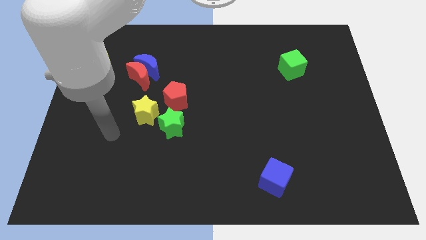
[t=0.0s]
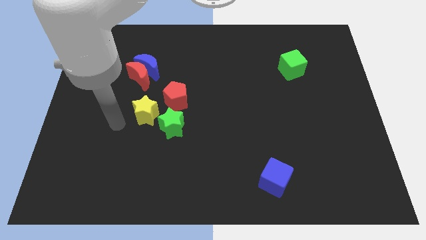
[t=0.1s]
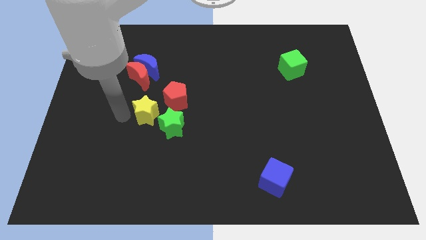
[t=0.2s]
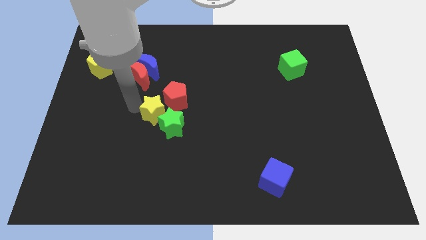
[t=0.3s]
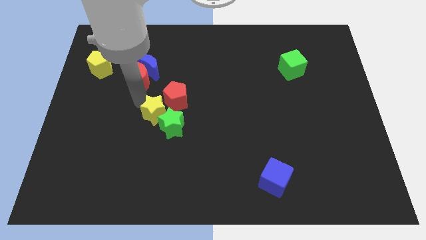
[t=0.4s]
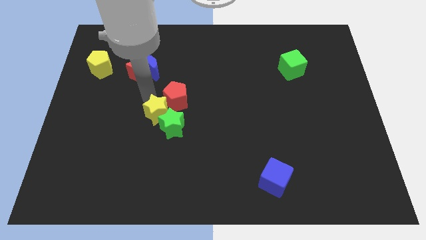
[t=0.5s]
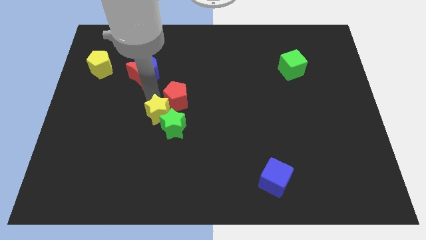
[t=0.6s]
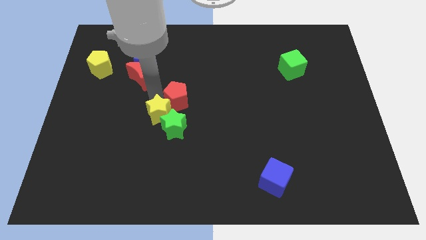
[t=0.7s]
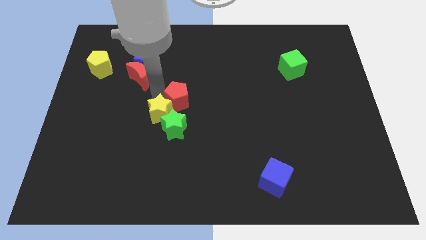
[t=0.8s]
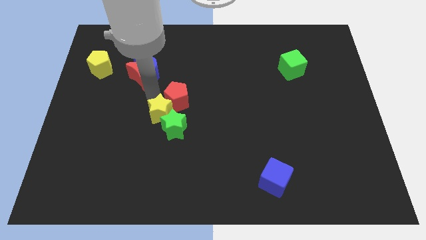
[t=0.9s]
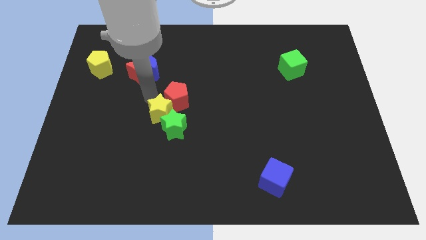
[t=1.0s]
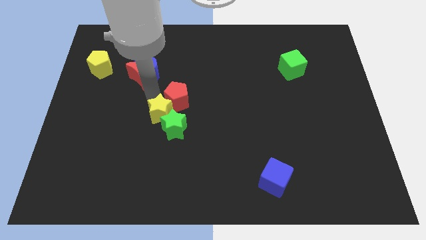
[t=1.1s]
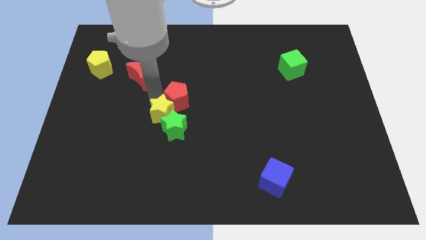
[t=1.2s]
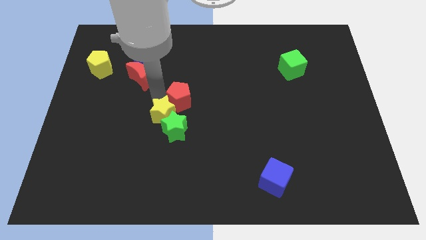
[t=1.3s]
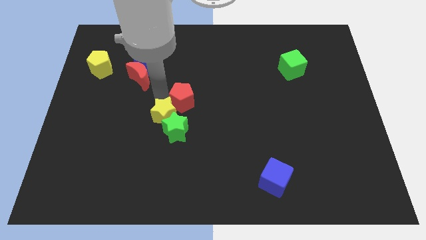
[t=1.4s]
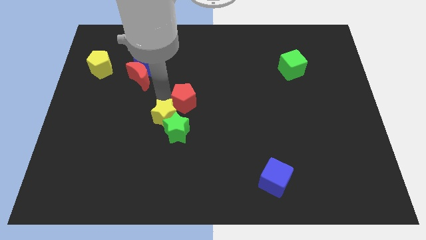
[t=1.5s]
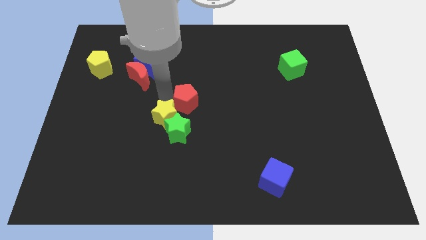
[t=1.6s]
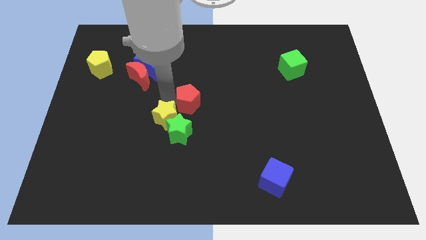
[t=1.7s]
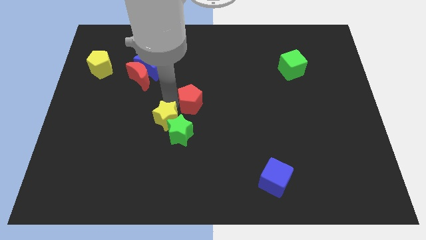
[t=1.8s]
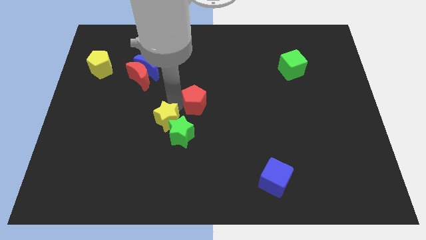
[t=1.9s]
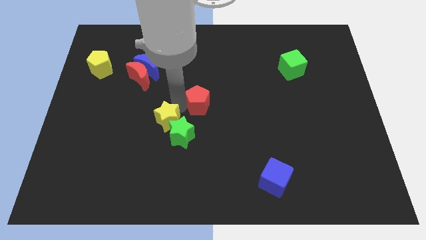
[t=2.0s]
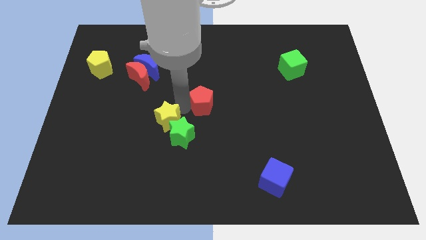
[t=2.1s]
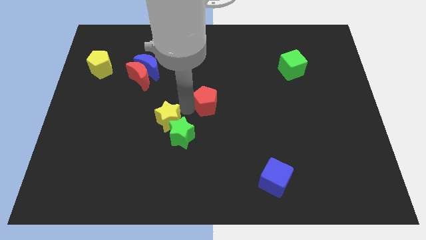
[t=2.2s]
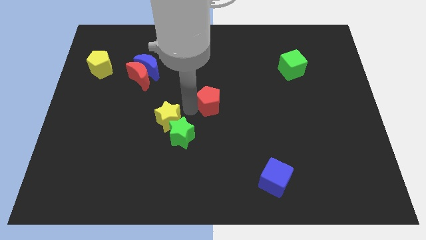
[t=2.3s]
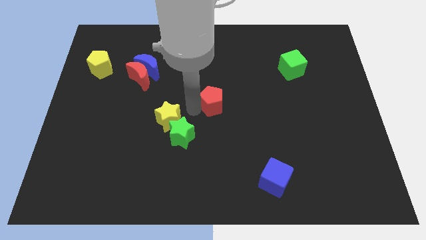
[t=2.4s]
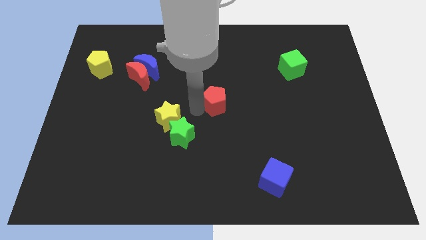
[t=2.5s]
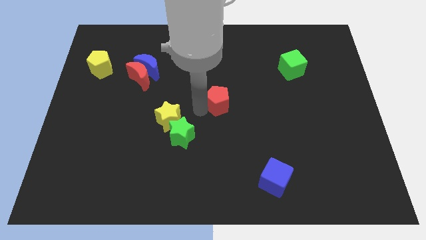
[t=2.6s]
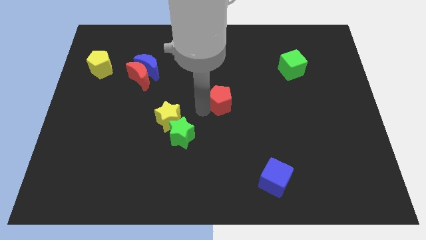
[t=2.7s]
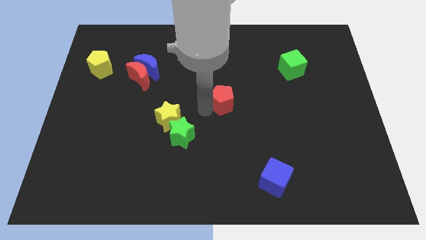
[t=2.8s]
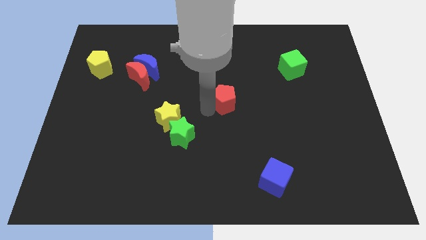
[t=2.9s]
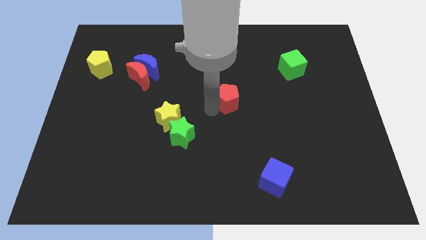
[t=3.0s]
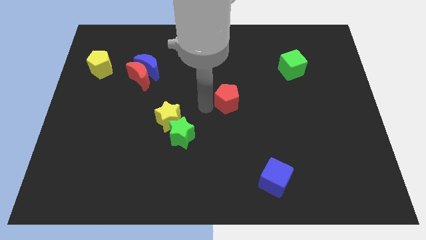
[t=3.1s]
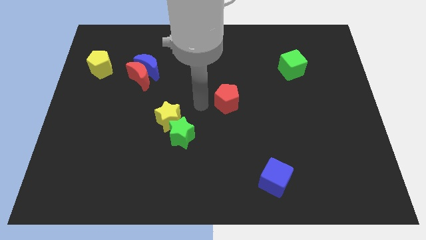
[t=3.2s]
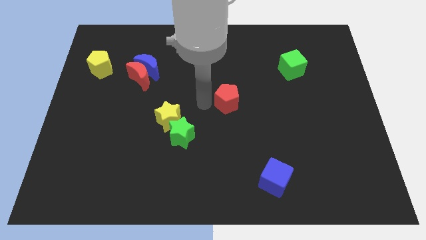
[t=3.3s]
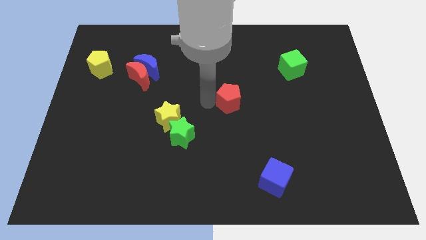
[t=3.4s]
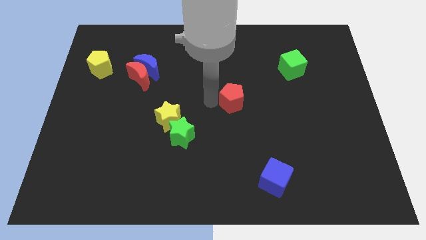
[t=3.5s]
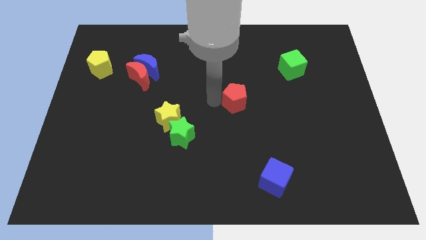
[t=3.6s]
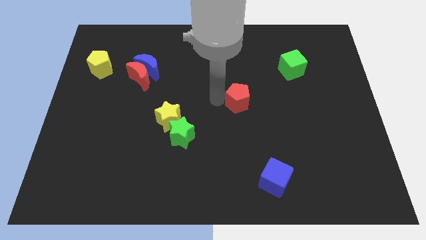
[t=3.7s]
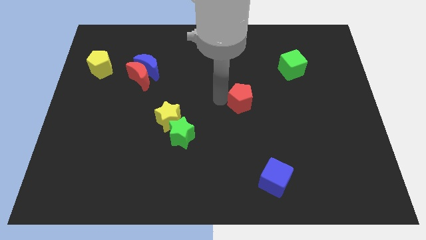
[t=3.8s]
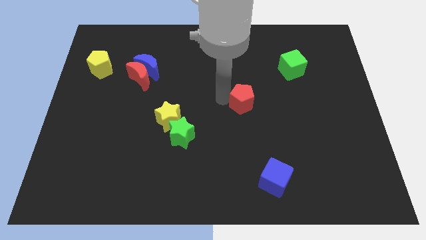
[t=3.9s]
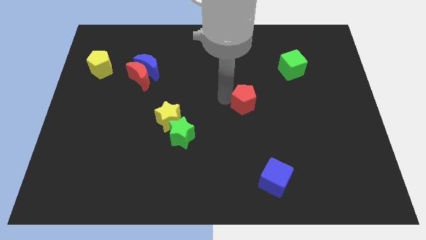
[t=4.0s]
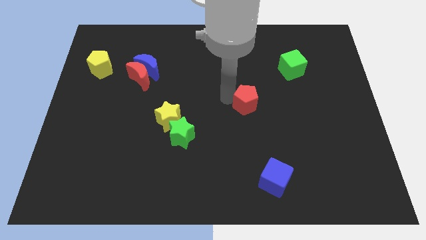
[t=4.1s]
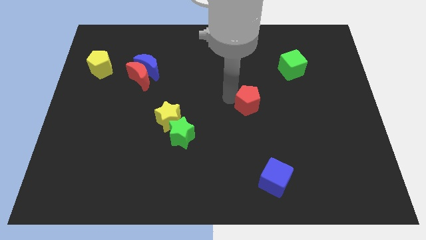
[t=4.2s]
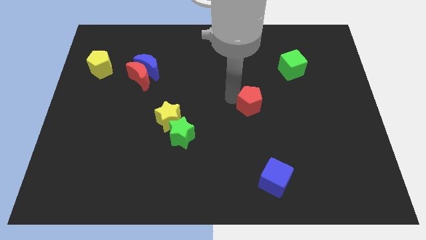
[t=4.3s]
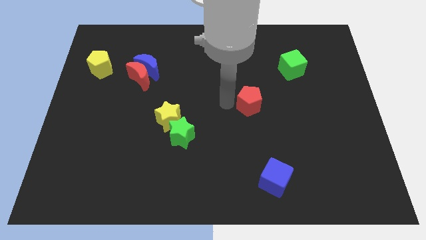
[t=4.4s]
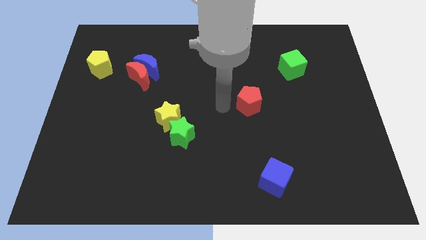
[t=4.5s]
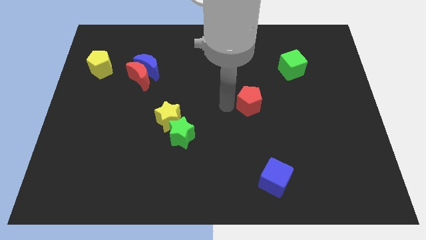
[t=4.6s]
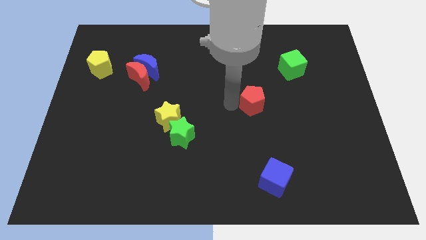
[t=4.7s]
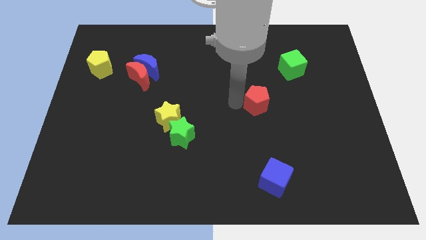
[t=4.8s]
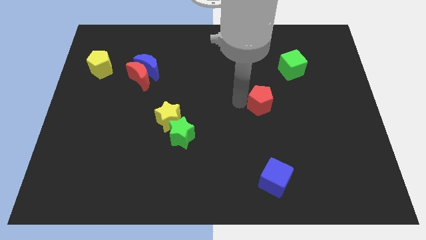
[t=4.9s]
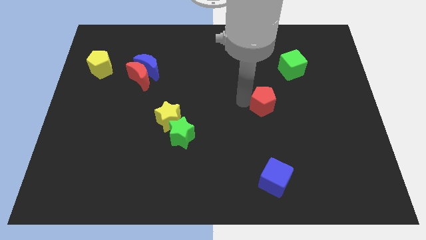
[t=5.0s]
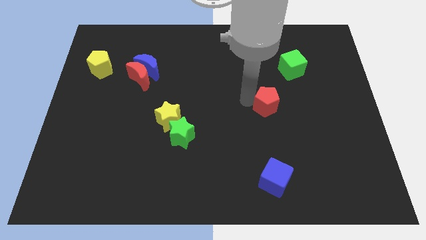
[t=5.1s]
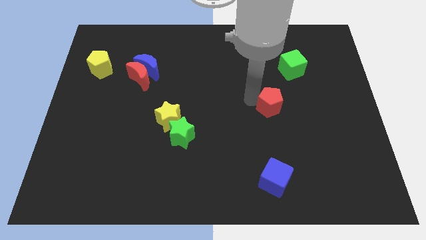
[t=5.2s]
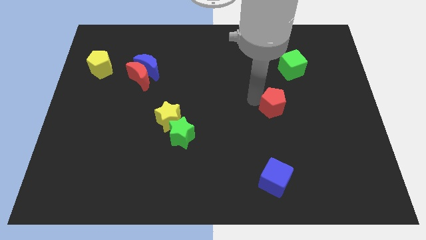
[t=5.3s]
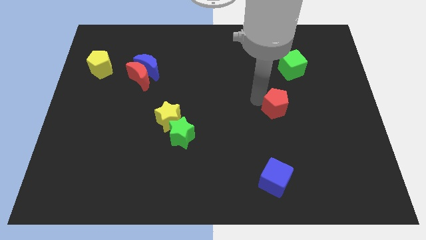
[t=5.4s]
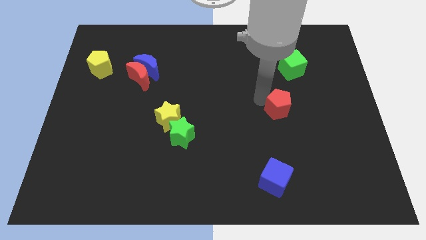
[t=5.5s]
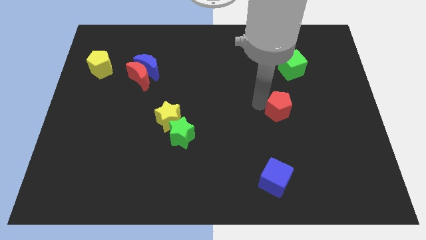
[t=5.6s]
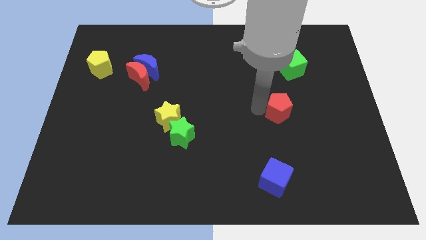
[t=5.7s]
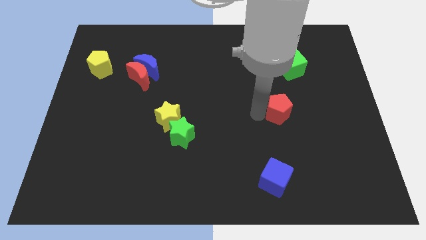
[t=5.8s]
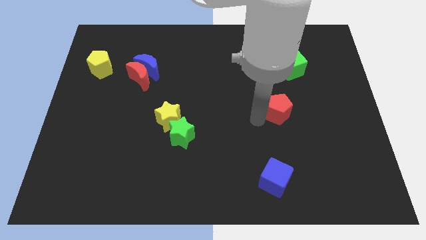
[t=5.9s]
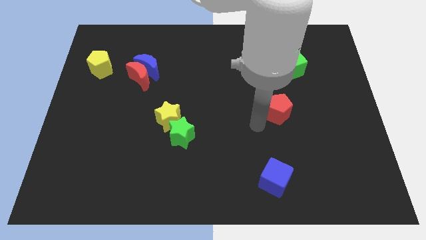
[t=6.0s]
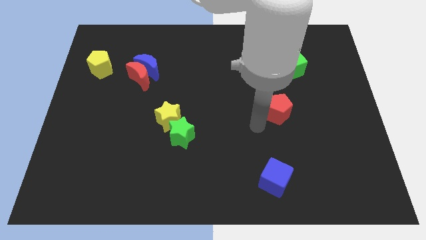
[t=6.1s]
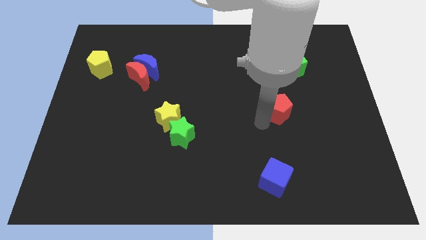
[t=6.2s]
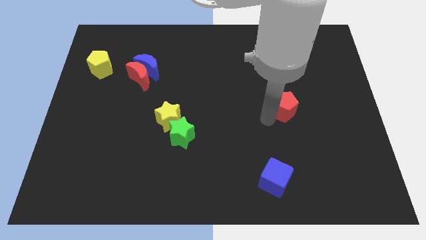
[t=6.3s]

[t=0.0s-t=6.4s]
slide the red pentagon to the bottom of the green cube
